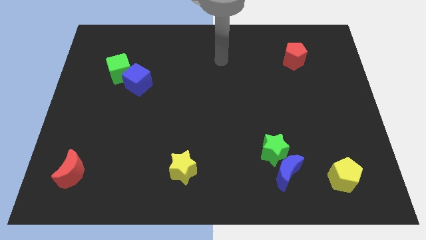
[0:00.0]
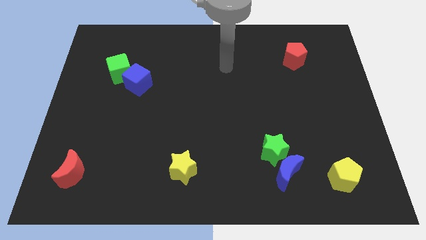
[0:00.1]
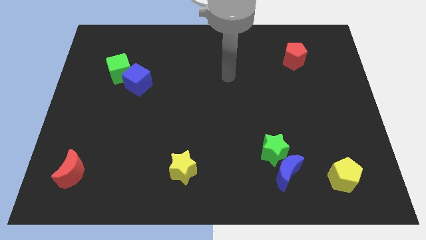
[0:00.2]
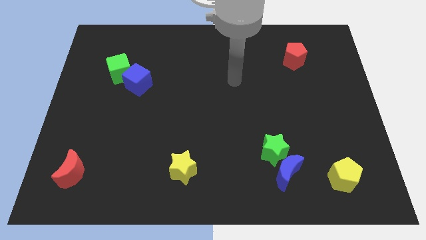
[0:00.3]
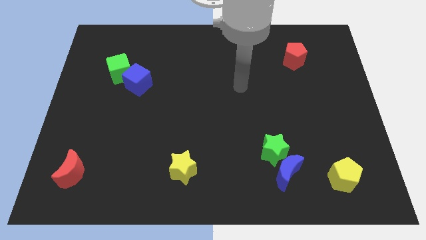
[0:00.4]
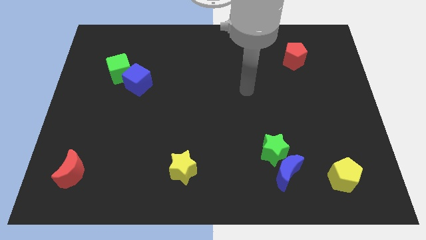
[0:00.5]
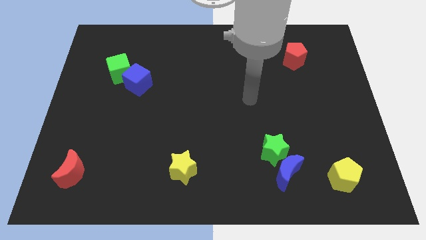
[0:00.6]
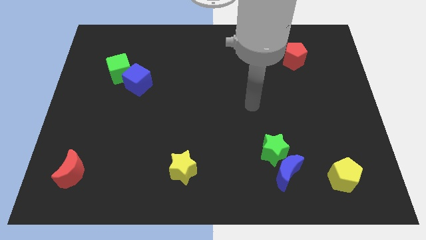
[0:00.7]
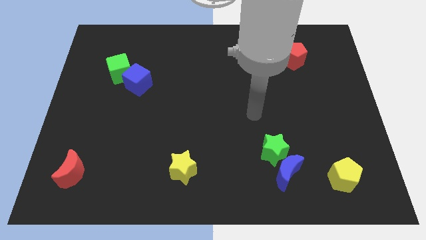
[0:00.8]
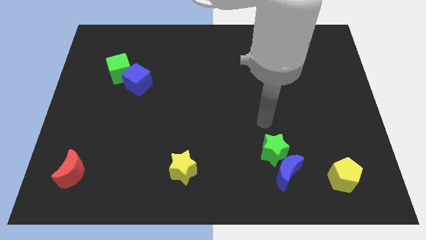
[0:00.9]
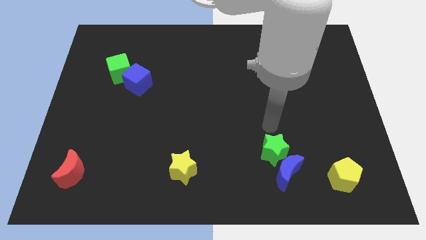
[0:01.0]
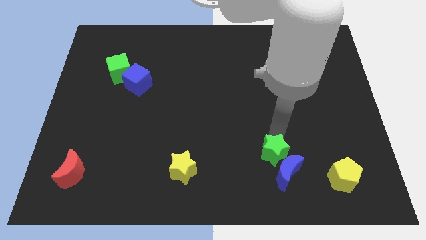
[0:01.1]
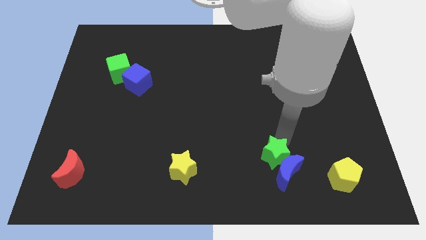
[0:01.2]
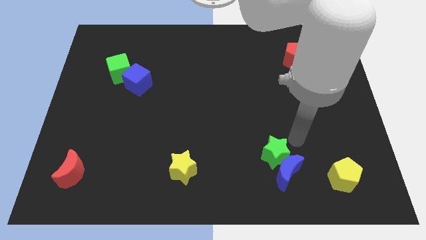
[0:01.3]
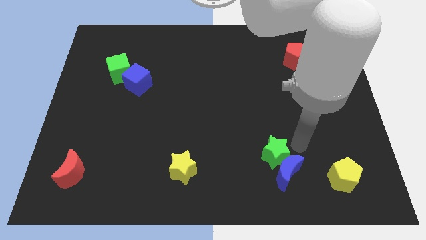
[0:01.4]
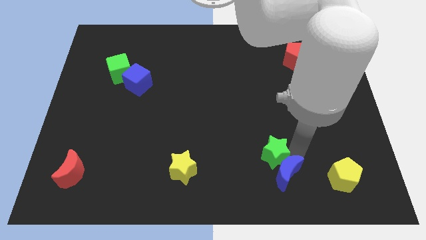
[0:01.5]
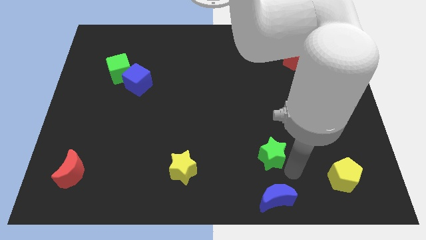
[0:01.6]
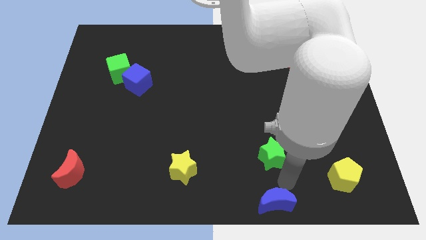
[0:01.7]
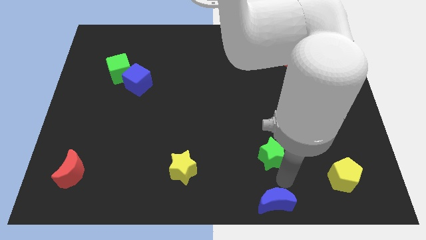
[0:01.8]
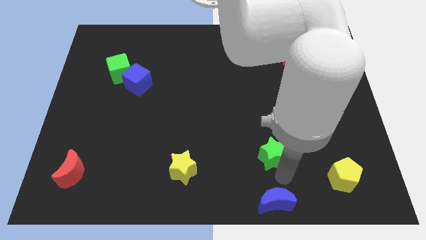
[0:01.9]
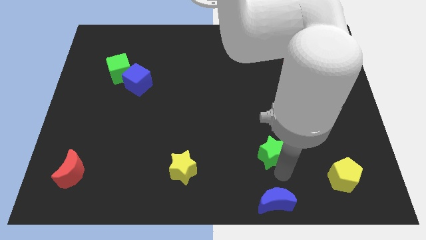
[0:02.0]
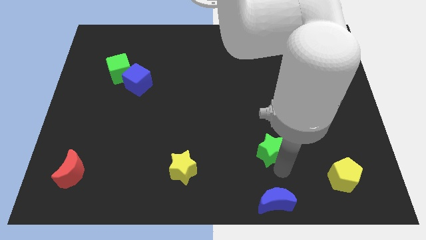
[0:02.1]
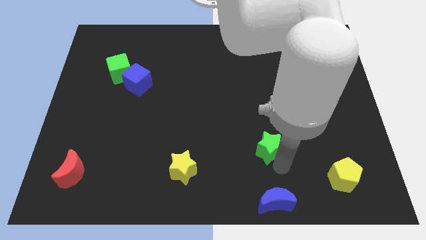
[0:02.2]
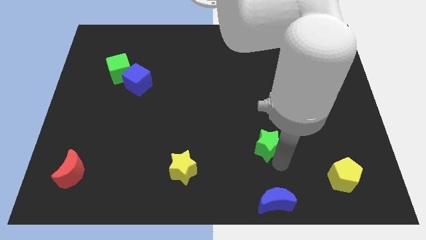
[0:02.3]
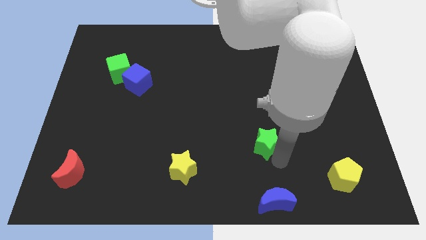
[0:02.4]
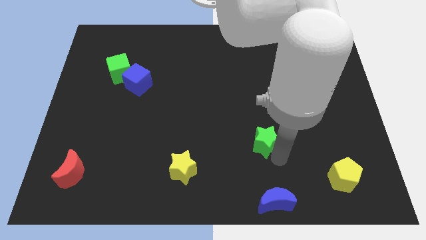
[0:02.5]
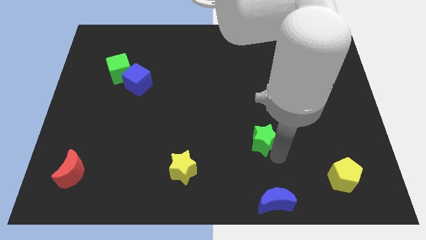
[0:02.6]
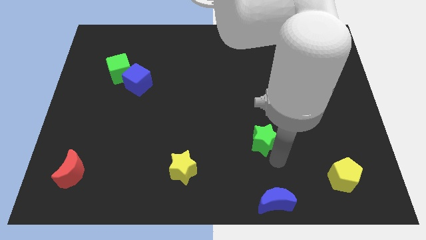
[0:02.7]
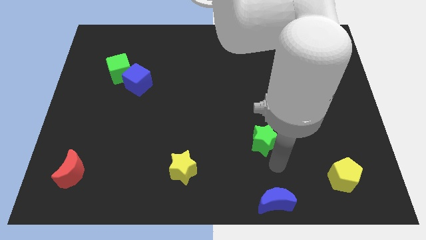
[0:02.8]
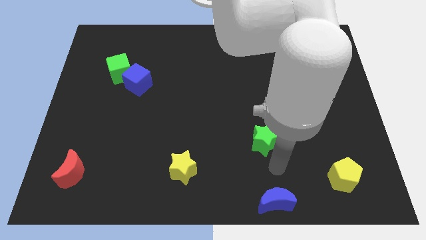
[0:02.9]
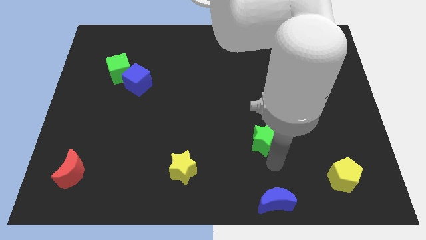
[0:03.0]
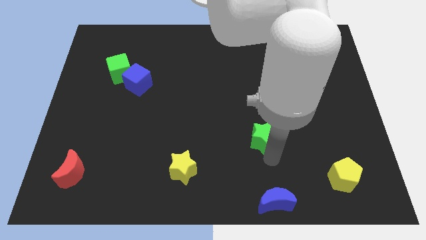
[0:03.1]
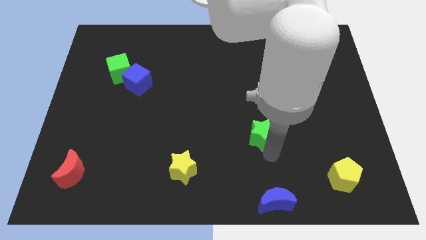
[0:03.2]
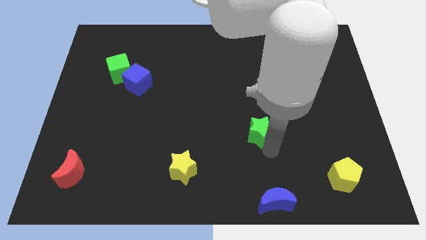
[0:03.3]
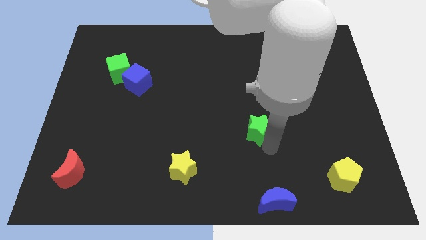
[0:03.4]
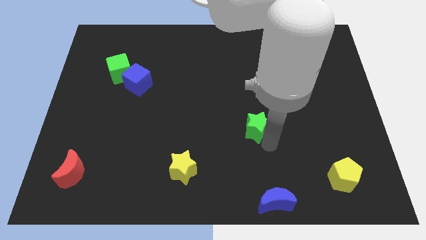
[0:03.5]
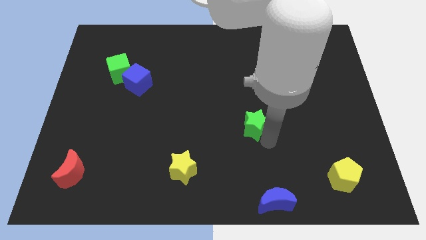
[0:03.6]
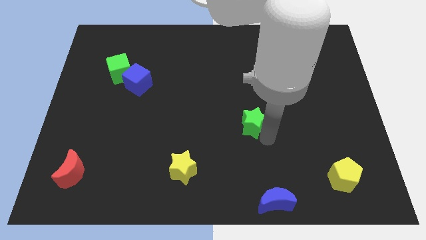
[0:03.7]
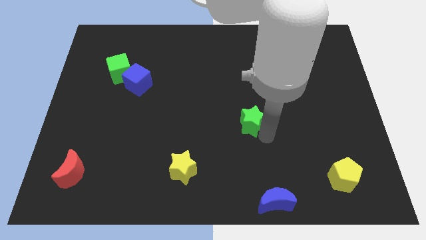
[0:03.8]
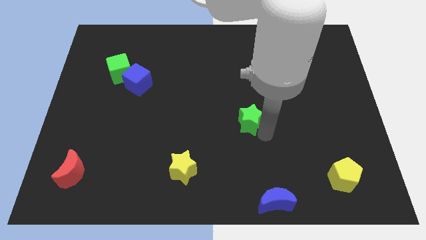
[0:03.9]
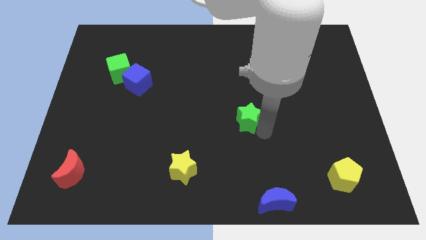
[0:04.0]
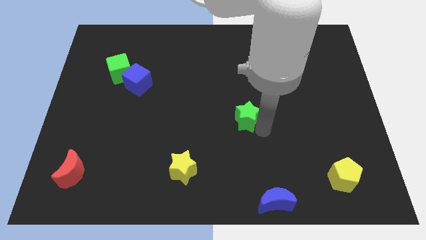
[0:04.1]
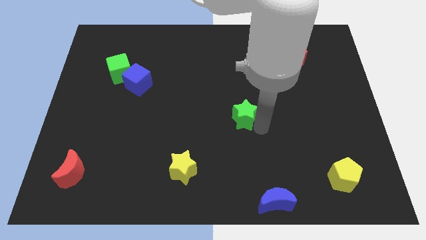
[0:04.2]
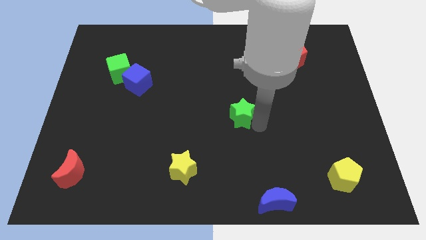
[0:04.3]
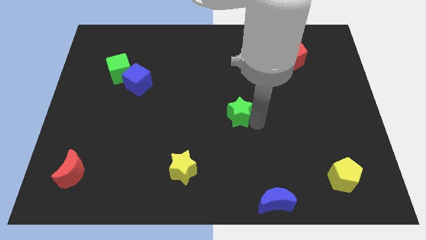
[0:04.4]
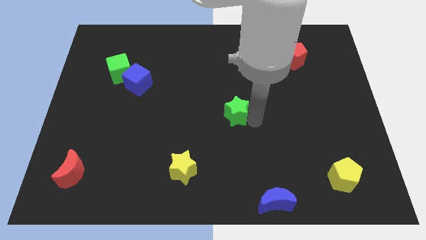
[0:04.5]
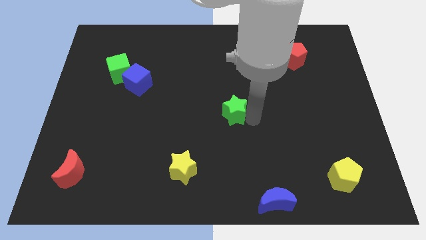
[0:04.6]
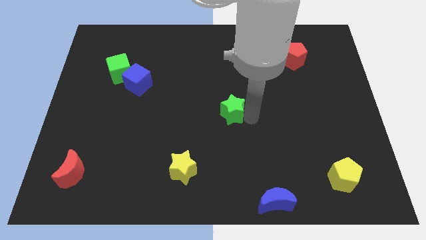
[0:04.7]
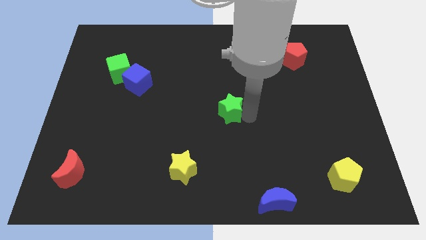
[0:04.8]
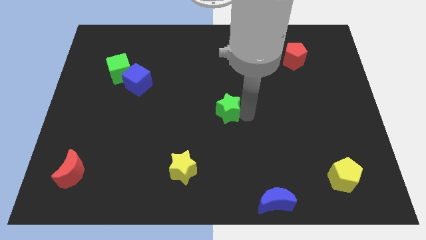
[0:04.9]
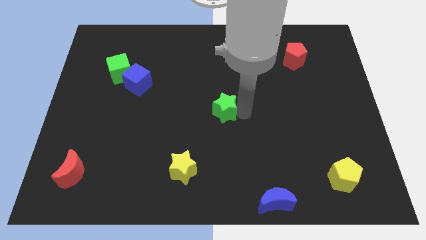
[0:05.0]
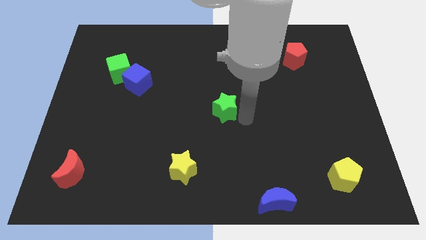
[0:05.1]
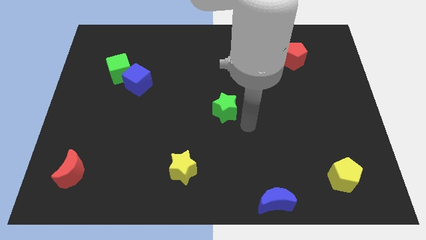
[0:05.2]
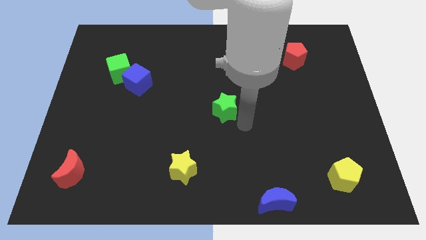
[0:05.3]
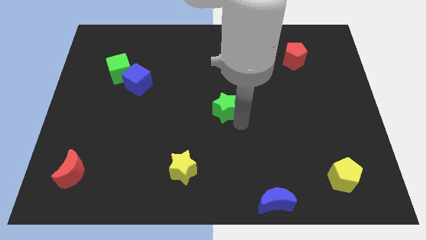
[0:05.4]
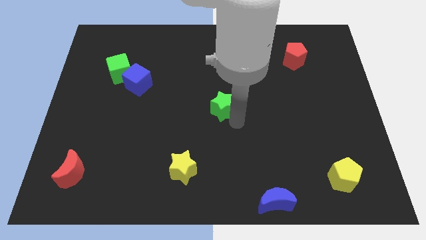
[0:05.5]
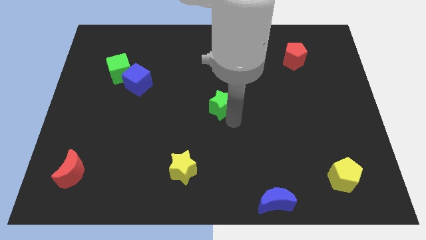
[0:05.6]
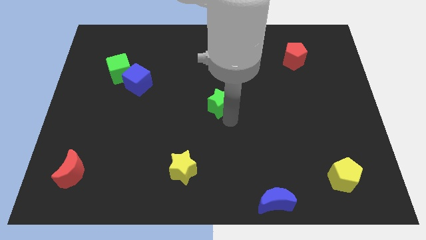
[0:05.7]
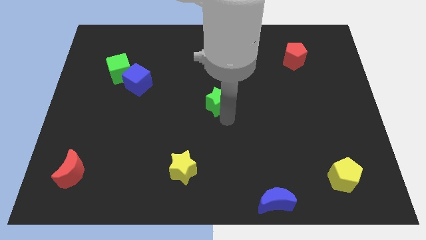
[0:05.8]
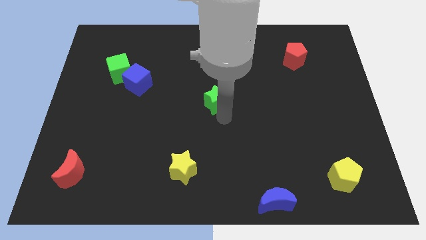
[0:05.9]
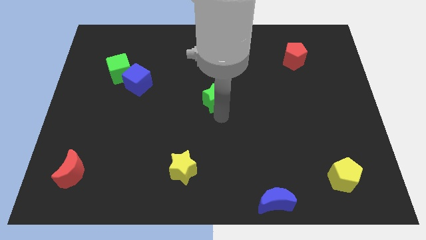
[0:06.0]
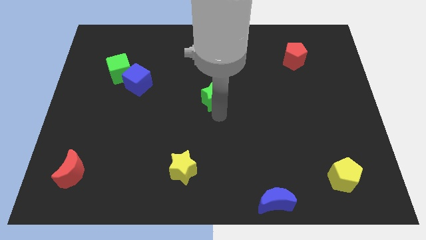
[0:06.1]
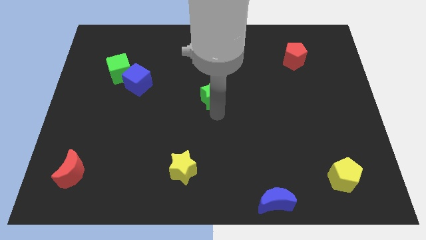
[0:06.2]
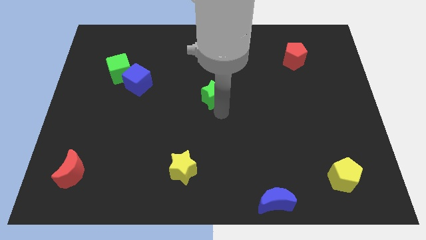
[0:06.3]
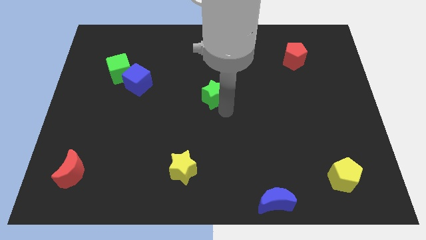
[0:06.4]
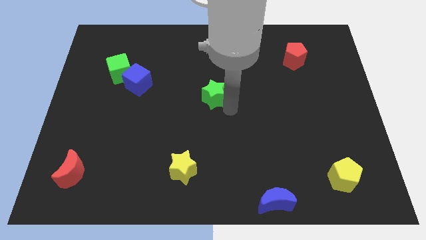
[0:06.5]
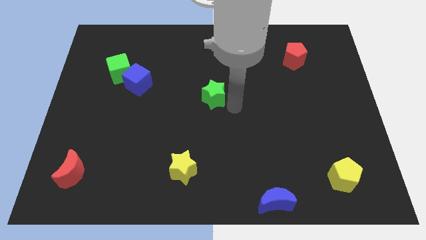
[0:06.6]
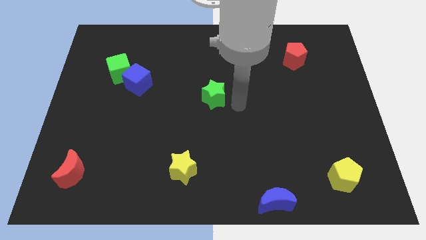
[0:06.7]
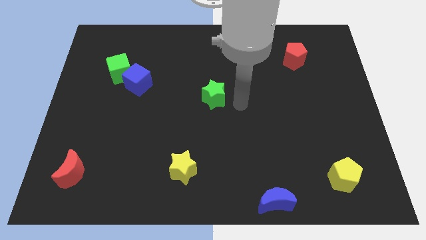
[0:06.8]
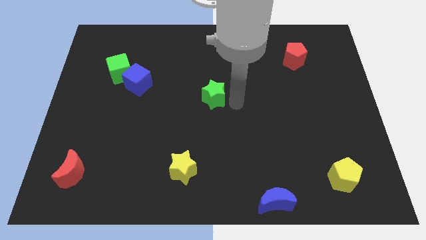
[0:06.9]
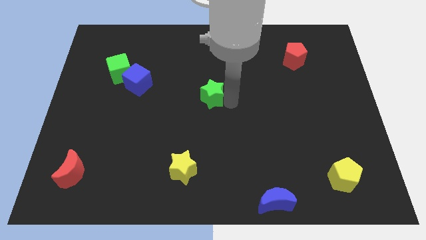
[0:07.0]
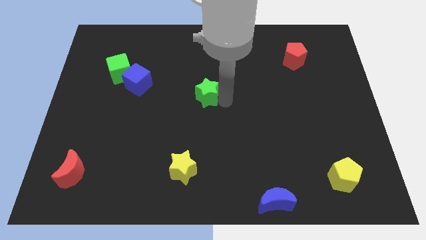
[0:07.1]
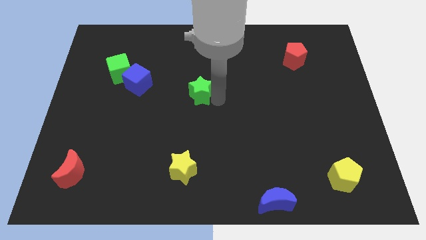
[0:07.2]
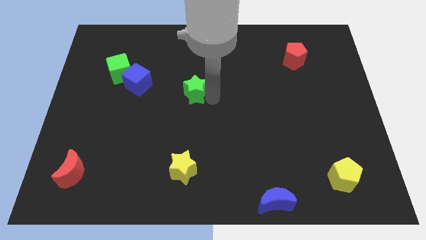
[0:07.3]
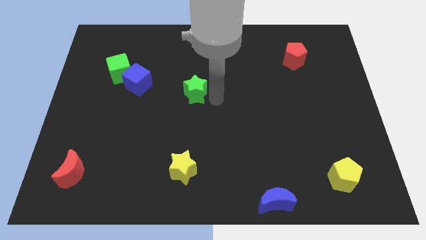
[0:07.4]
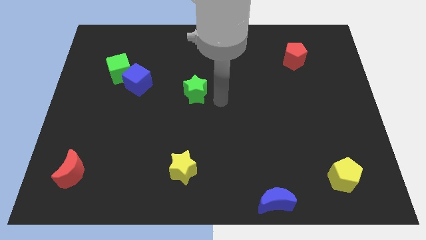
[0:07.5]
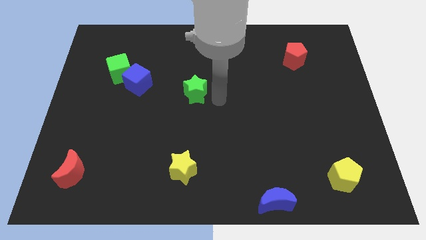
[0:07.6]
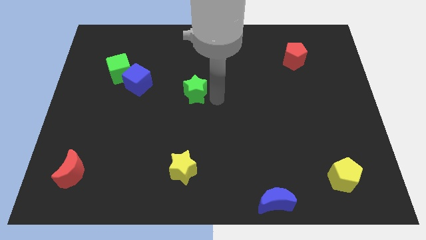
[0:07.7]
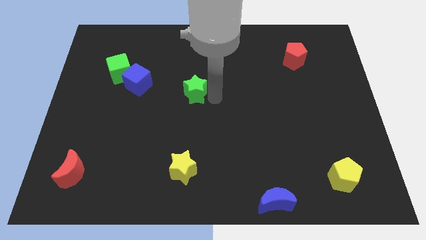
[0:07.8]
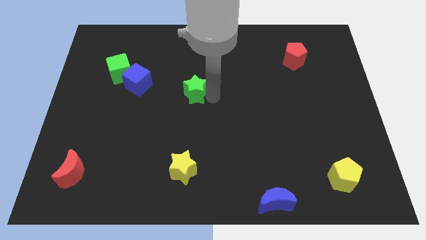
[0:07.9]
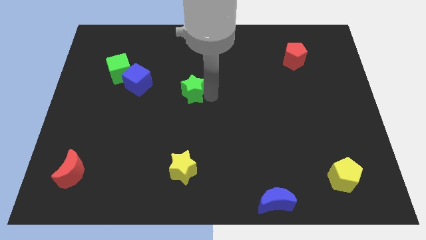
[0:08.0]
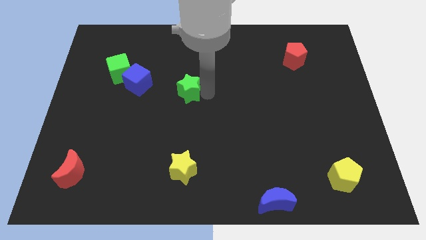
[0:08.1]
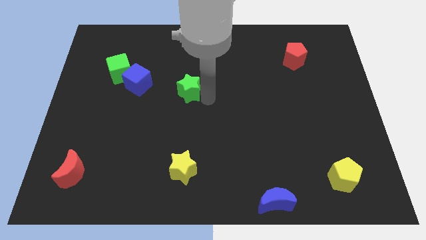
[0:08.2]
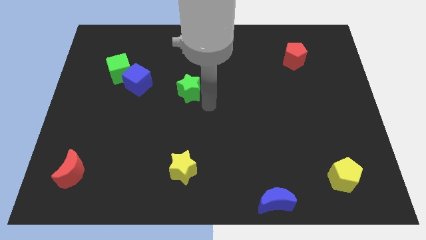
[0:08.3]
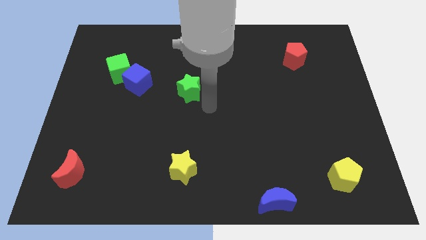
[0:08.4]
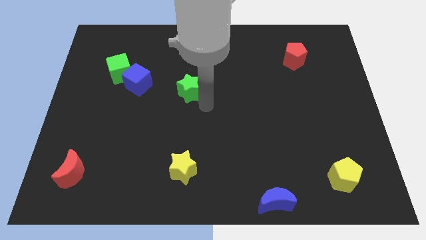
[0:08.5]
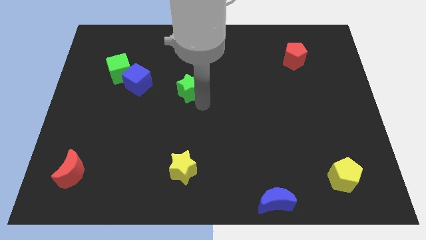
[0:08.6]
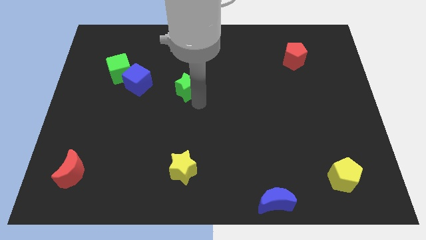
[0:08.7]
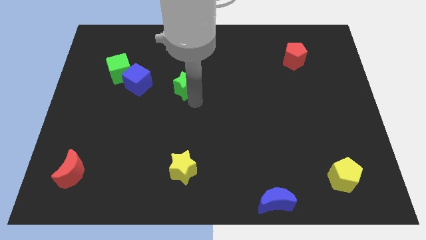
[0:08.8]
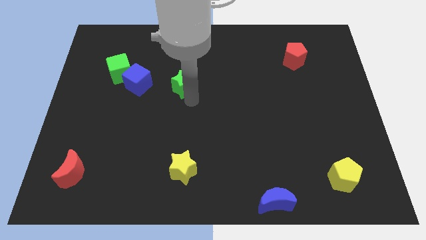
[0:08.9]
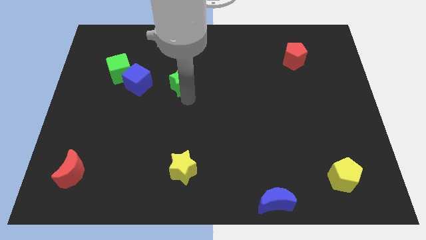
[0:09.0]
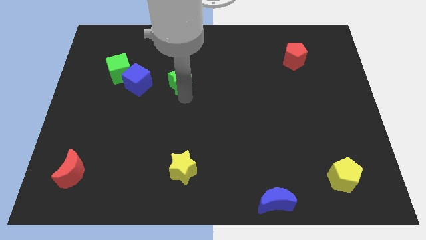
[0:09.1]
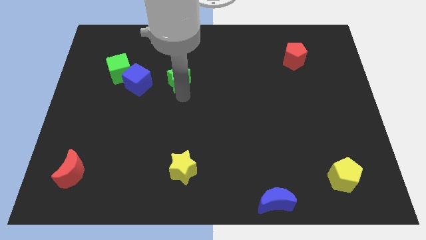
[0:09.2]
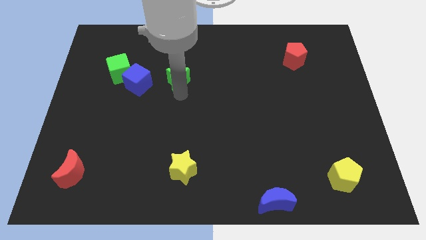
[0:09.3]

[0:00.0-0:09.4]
push the green star just right of the green cube
